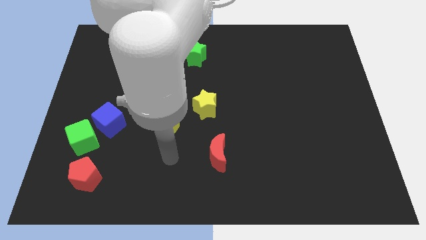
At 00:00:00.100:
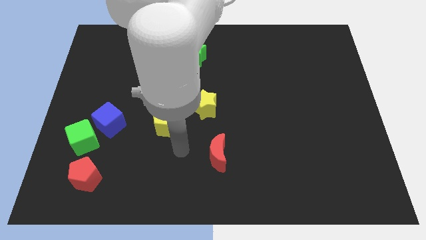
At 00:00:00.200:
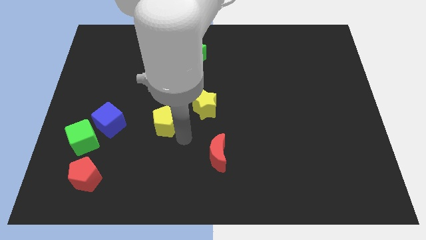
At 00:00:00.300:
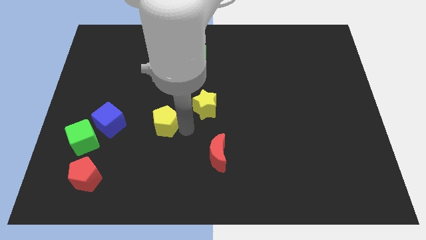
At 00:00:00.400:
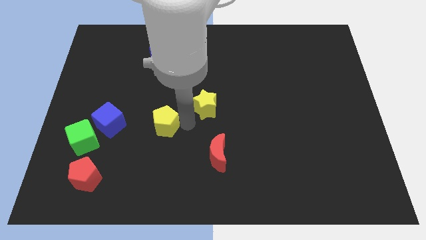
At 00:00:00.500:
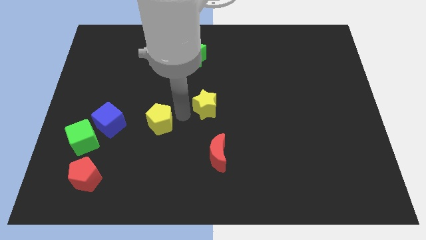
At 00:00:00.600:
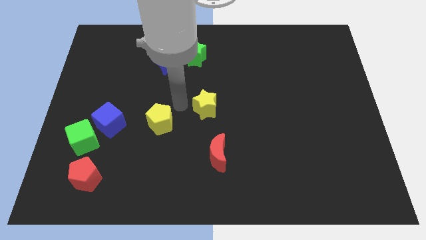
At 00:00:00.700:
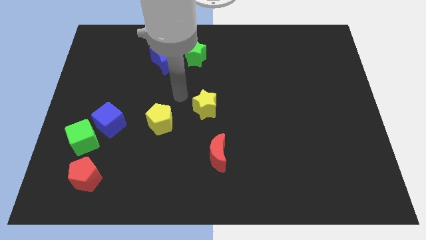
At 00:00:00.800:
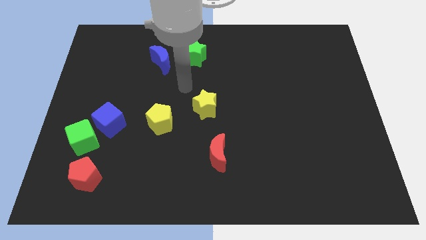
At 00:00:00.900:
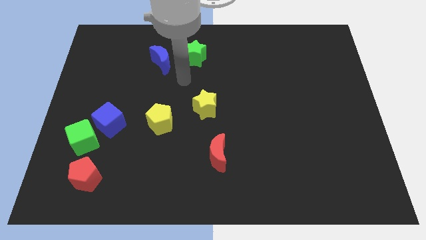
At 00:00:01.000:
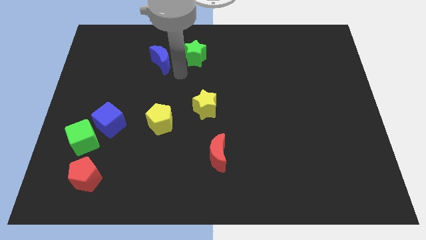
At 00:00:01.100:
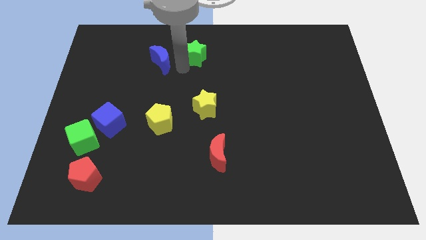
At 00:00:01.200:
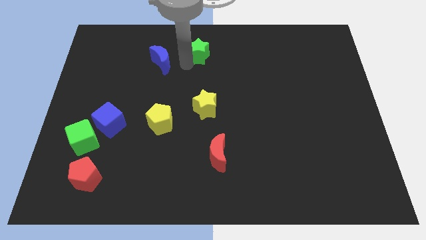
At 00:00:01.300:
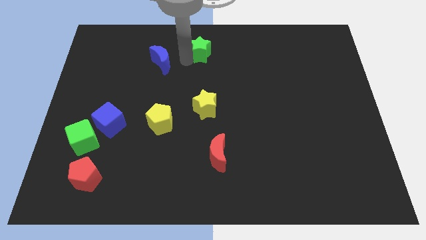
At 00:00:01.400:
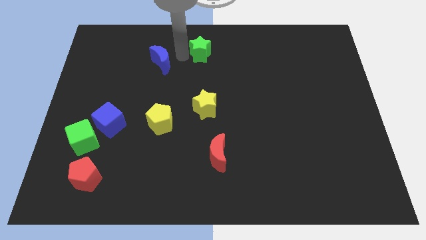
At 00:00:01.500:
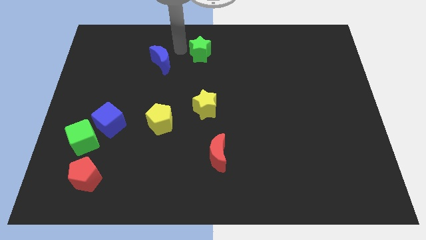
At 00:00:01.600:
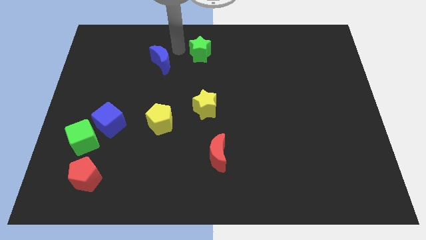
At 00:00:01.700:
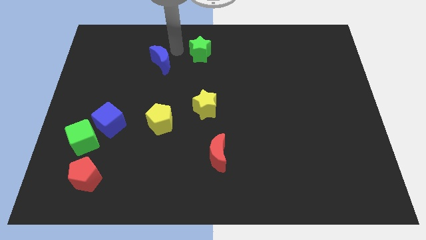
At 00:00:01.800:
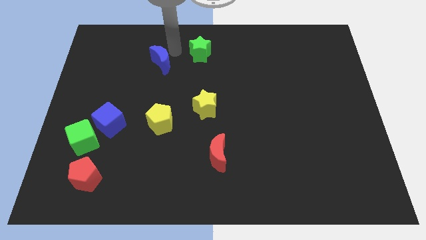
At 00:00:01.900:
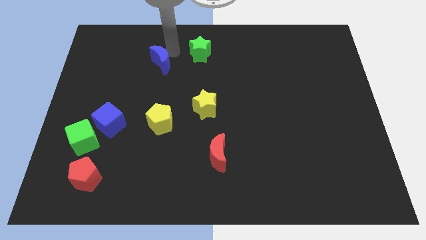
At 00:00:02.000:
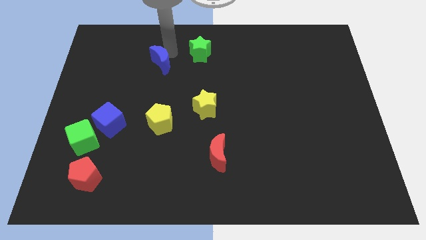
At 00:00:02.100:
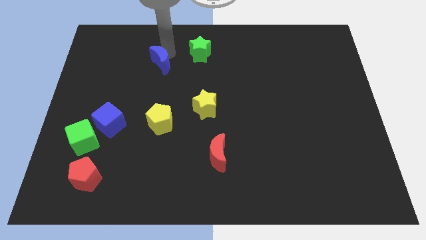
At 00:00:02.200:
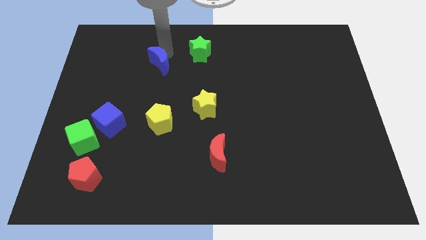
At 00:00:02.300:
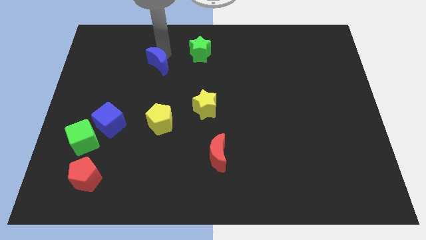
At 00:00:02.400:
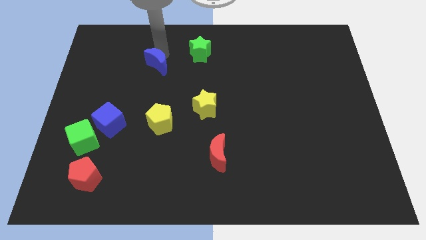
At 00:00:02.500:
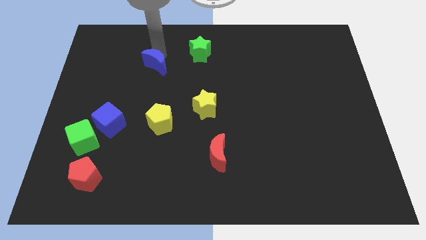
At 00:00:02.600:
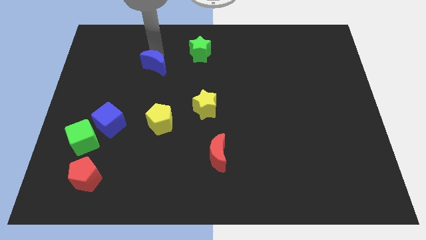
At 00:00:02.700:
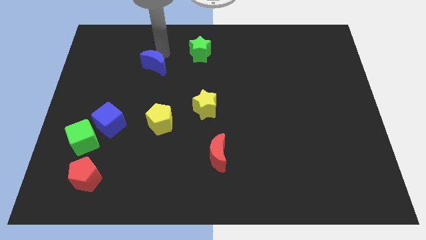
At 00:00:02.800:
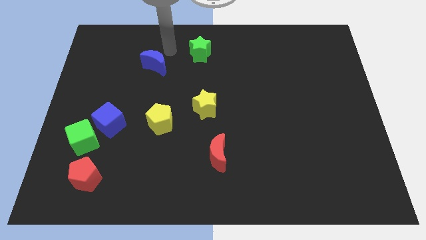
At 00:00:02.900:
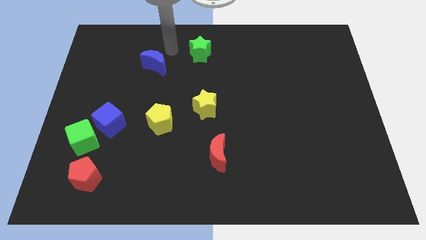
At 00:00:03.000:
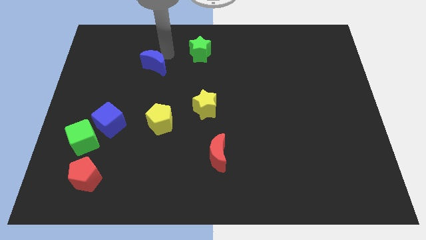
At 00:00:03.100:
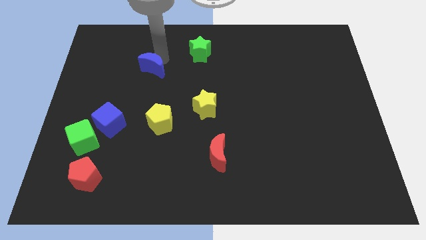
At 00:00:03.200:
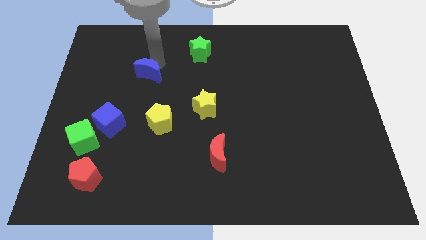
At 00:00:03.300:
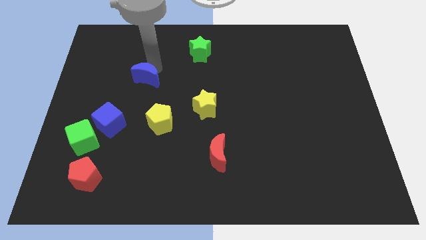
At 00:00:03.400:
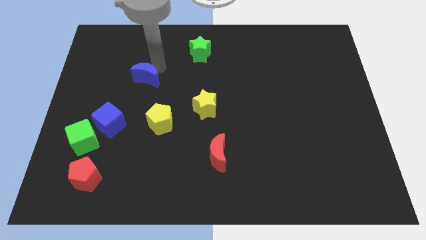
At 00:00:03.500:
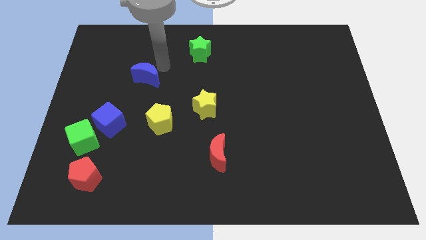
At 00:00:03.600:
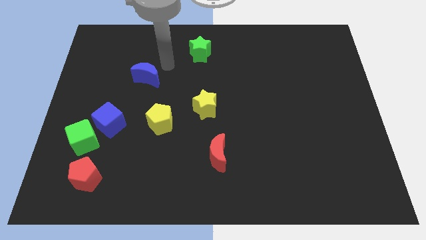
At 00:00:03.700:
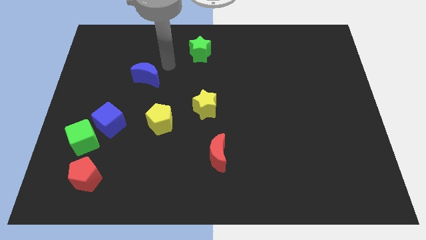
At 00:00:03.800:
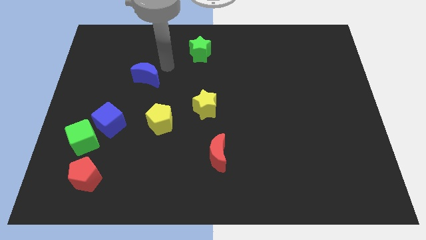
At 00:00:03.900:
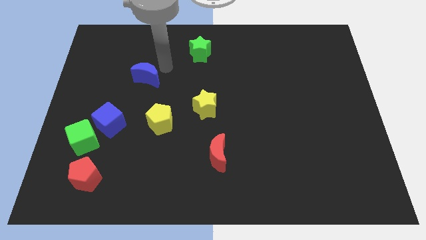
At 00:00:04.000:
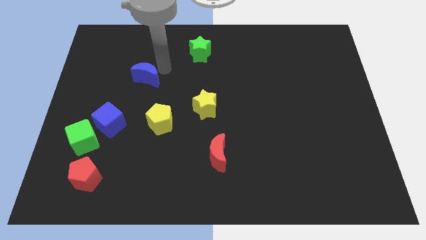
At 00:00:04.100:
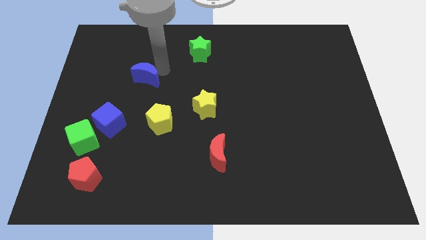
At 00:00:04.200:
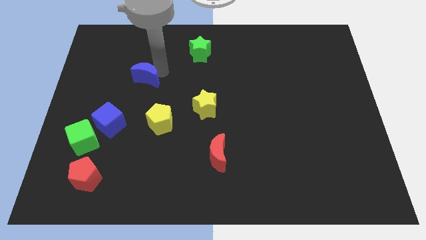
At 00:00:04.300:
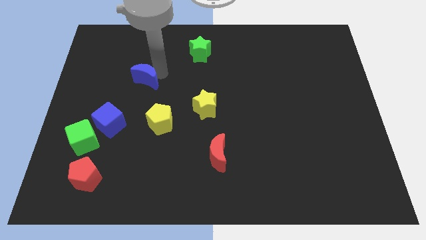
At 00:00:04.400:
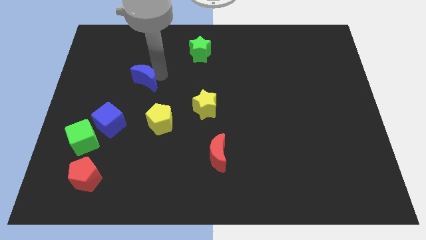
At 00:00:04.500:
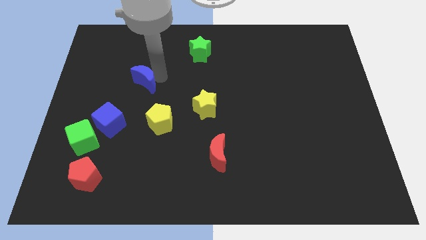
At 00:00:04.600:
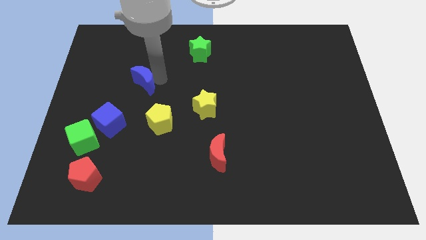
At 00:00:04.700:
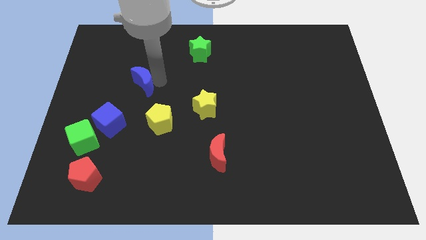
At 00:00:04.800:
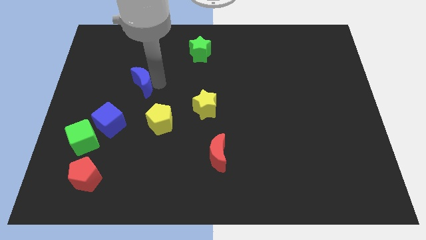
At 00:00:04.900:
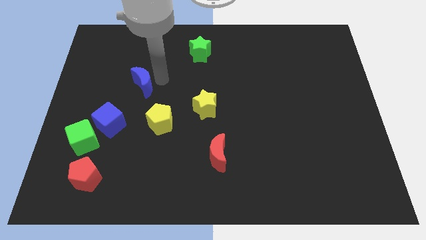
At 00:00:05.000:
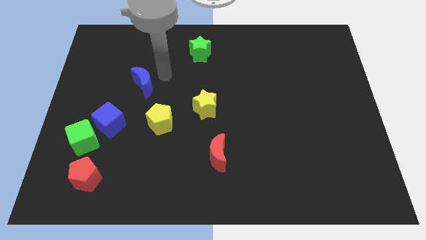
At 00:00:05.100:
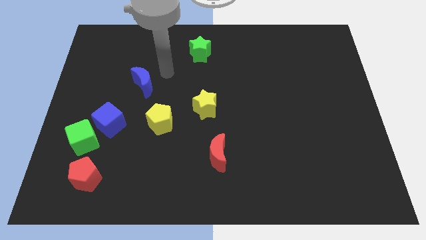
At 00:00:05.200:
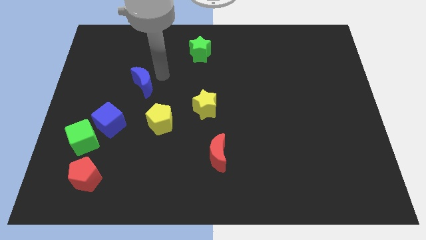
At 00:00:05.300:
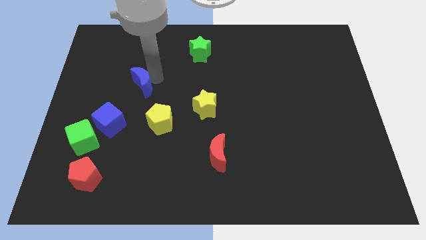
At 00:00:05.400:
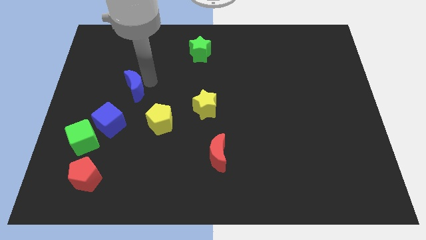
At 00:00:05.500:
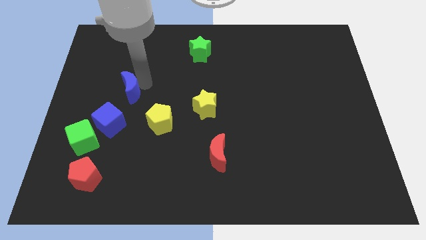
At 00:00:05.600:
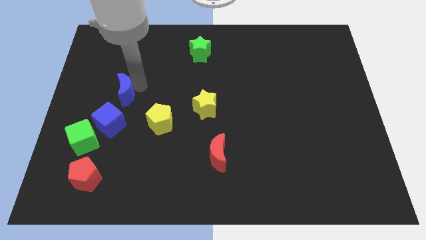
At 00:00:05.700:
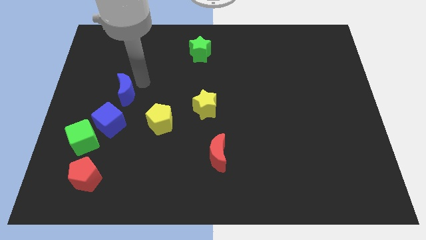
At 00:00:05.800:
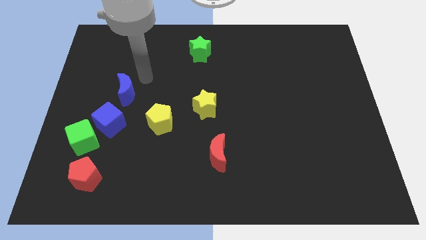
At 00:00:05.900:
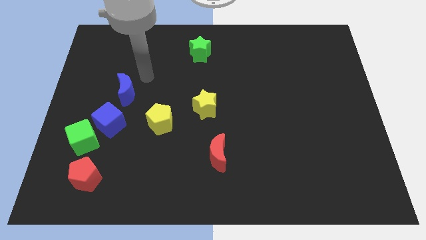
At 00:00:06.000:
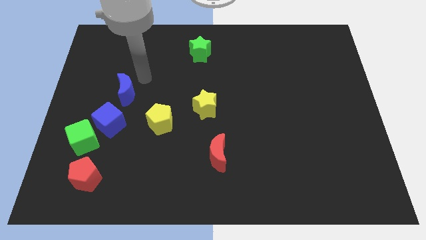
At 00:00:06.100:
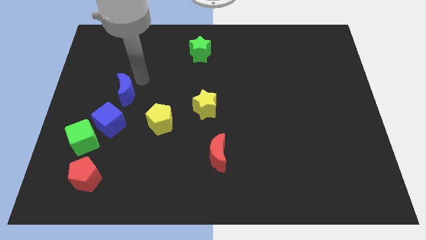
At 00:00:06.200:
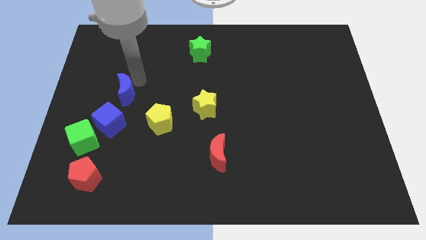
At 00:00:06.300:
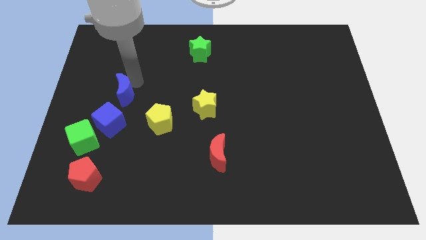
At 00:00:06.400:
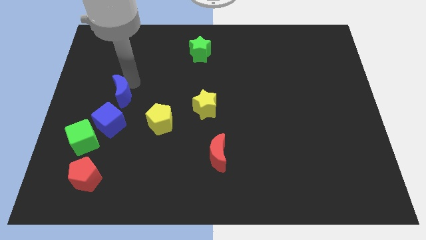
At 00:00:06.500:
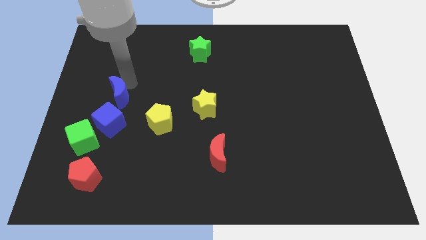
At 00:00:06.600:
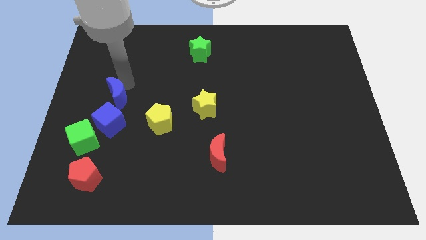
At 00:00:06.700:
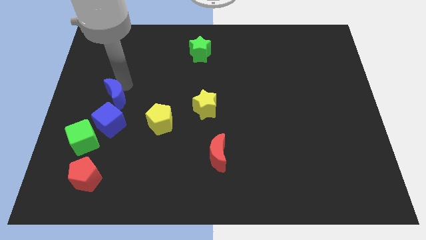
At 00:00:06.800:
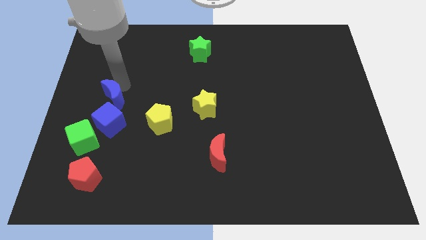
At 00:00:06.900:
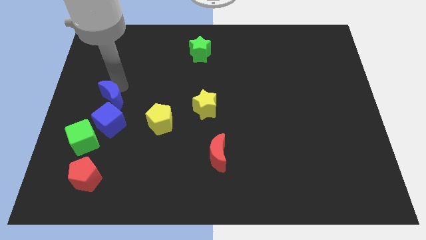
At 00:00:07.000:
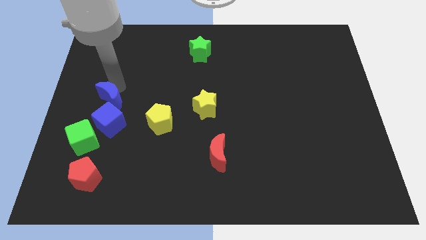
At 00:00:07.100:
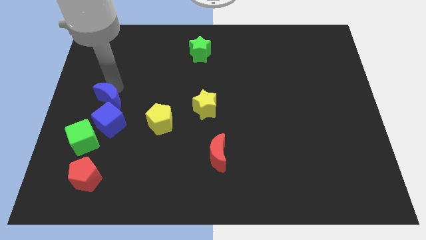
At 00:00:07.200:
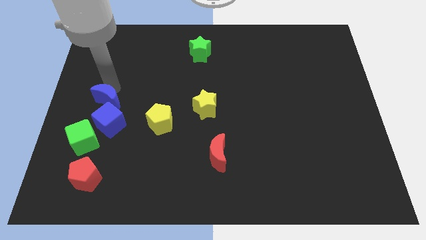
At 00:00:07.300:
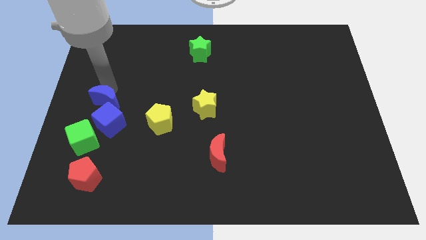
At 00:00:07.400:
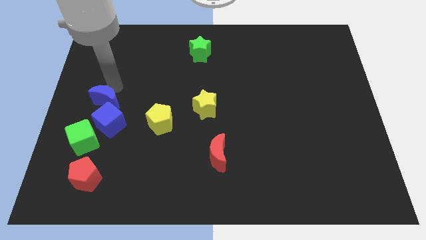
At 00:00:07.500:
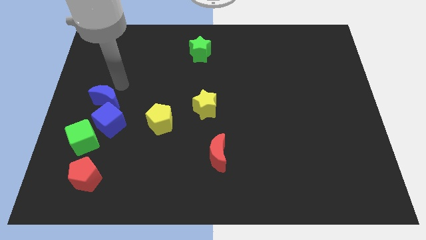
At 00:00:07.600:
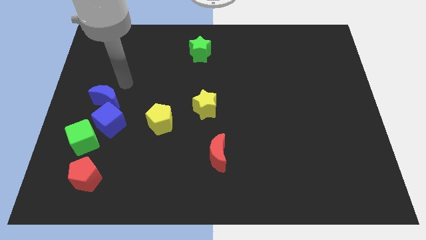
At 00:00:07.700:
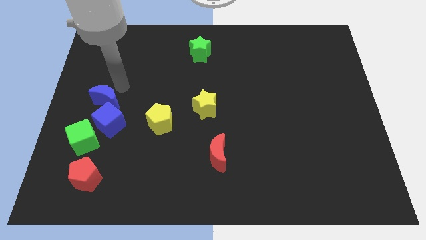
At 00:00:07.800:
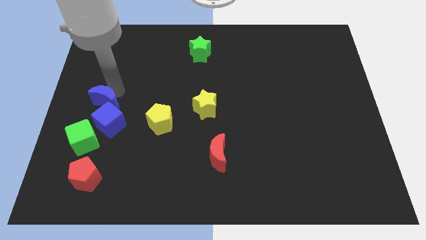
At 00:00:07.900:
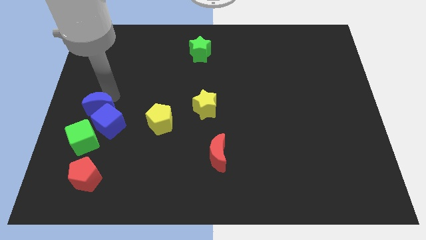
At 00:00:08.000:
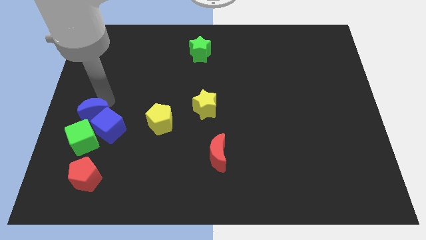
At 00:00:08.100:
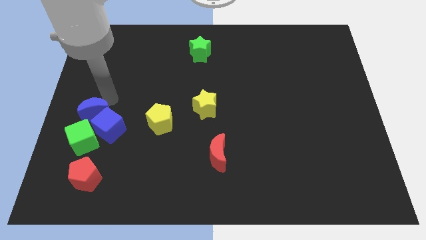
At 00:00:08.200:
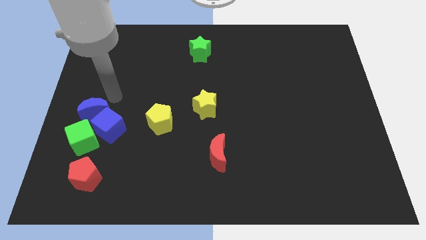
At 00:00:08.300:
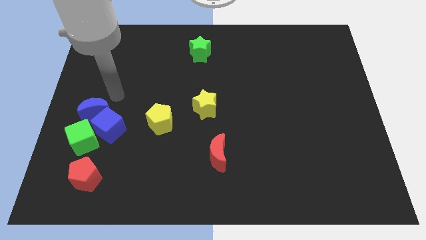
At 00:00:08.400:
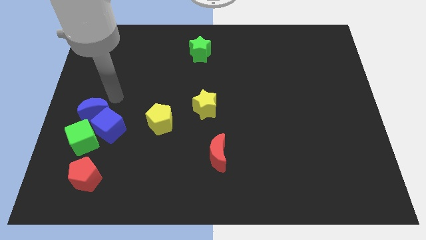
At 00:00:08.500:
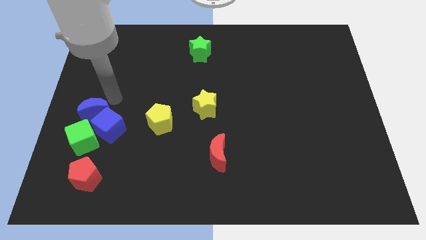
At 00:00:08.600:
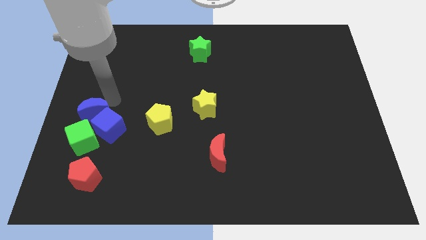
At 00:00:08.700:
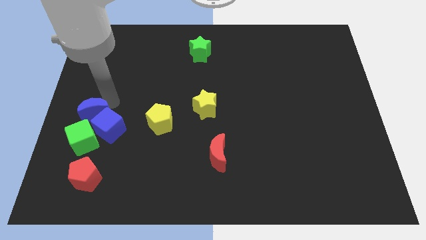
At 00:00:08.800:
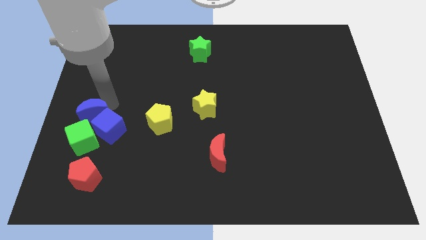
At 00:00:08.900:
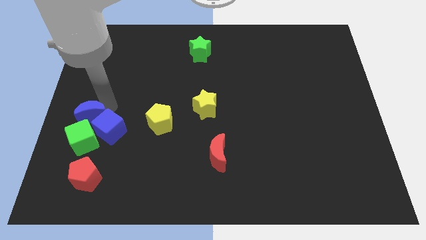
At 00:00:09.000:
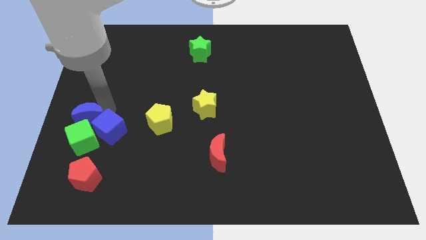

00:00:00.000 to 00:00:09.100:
put the blue moon next to the green cube
